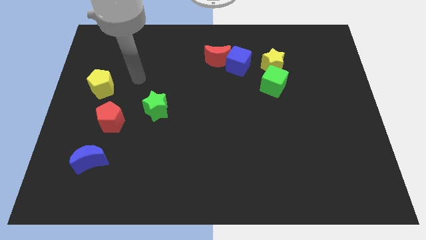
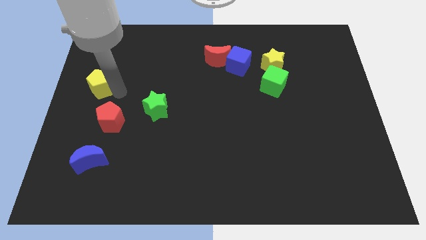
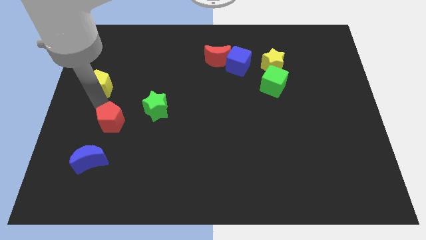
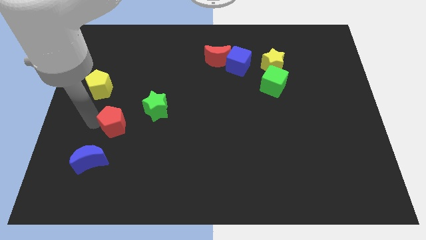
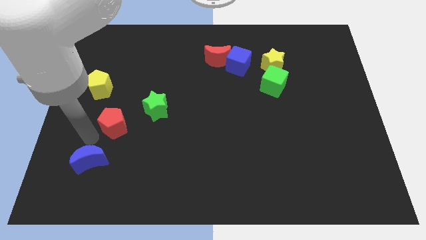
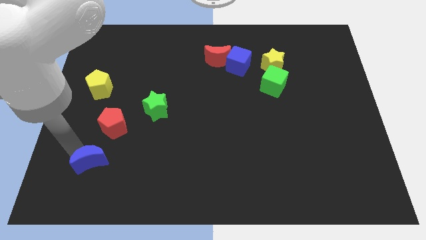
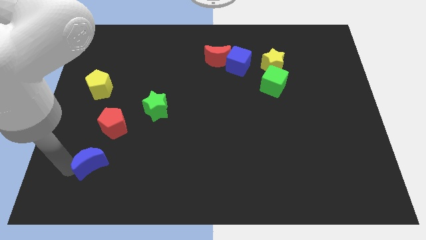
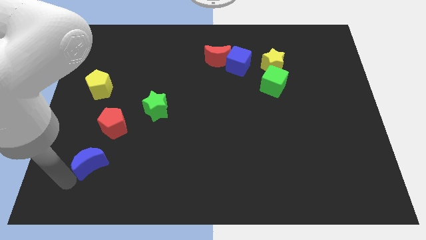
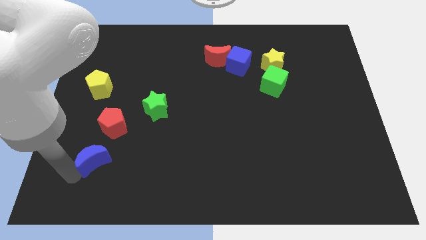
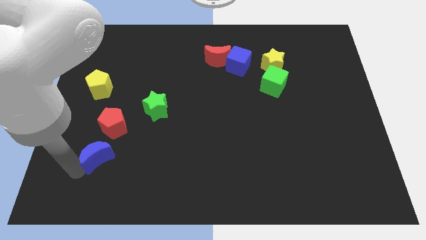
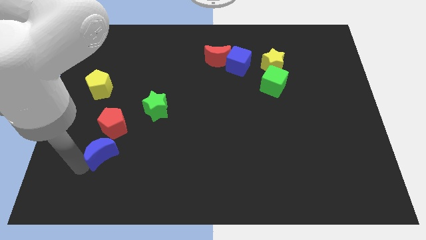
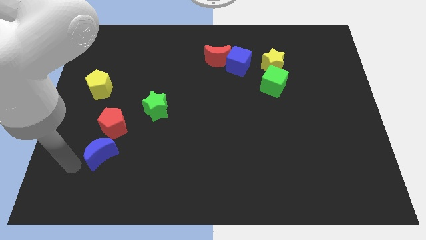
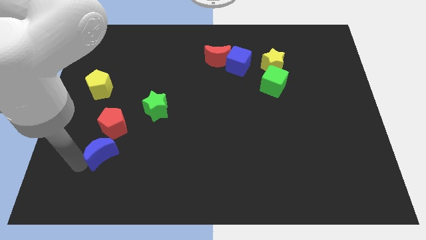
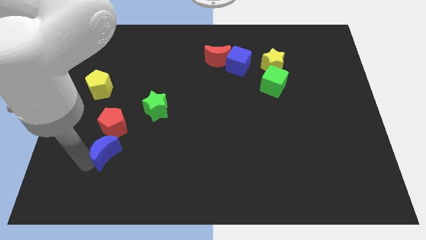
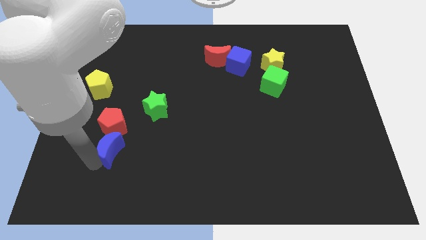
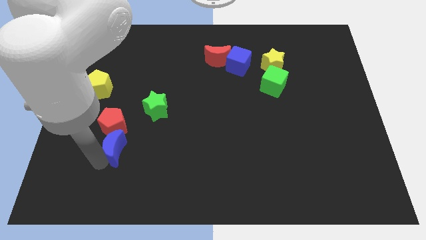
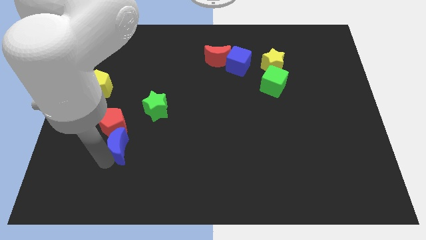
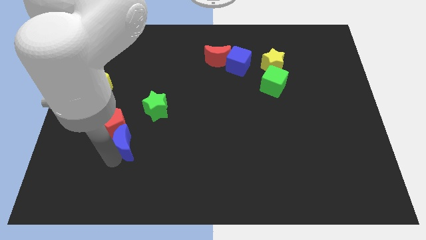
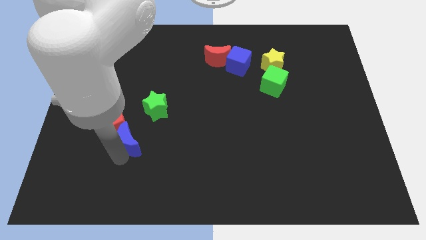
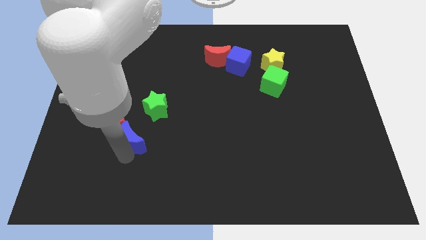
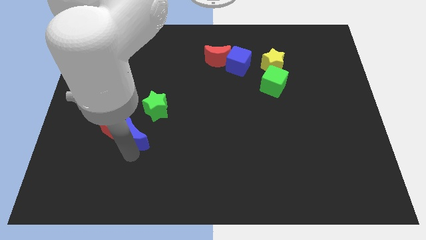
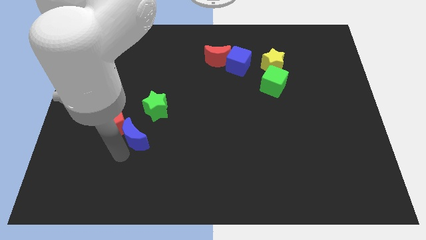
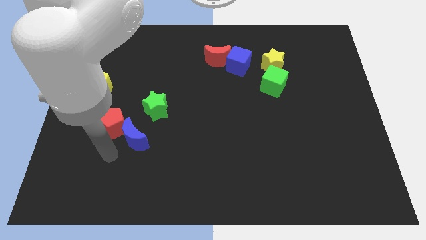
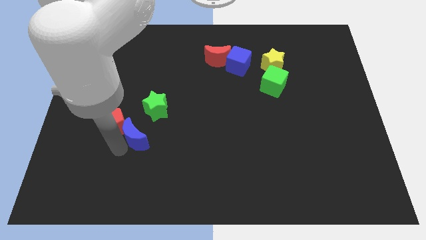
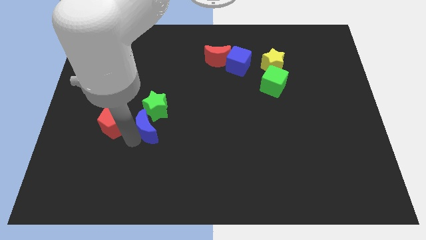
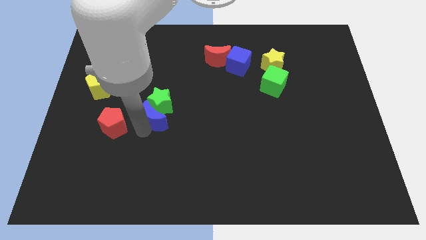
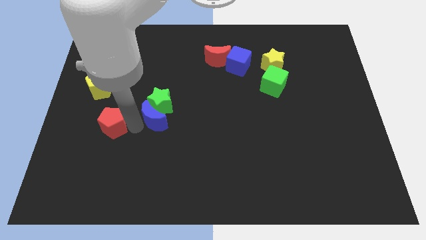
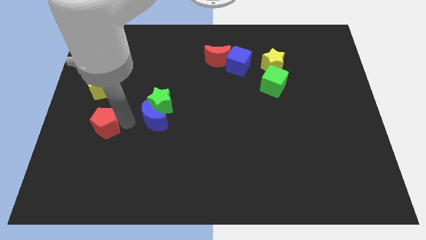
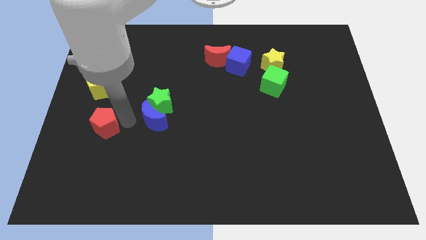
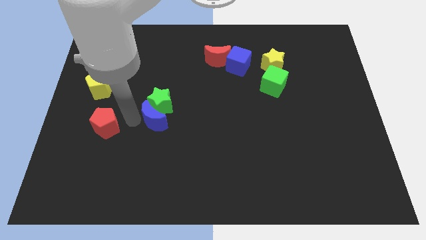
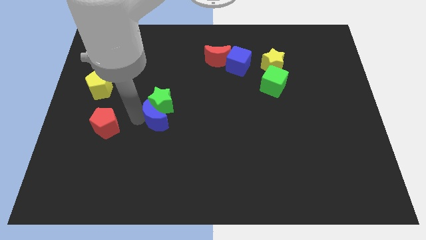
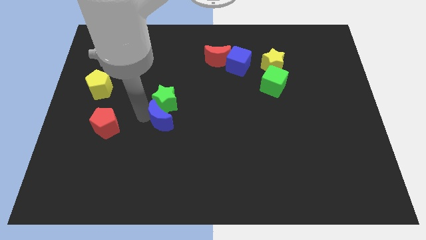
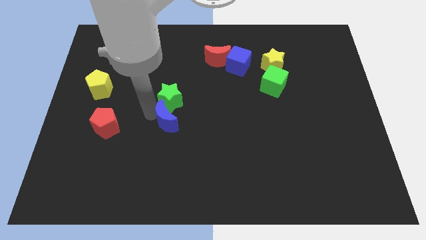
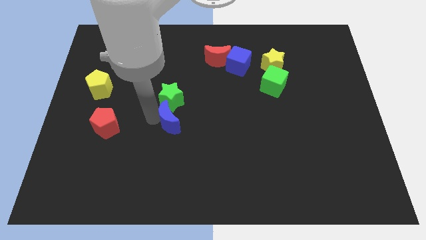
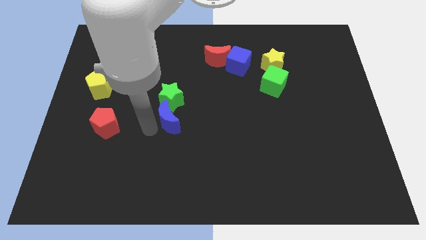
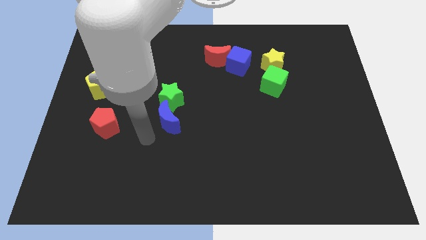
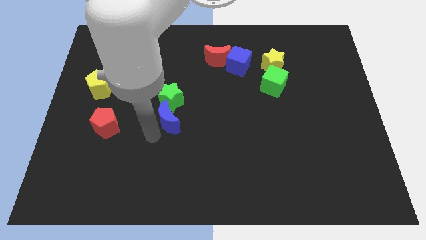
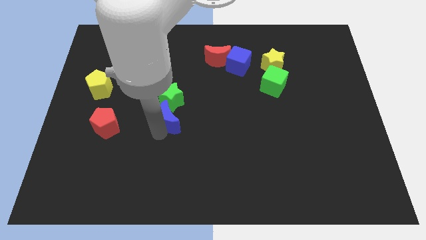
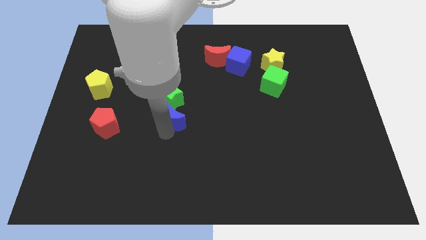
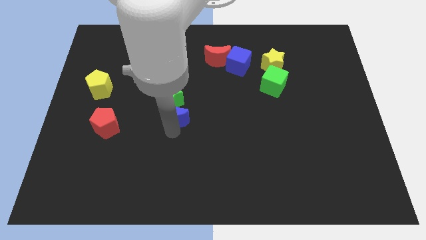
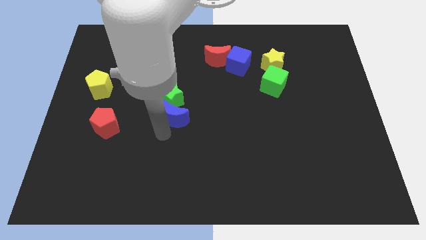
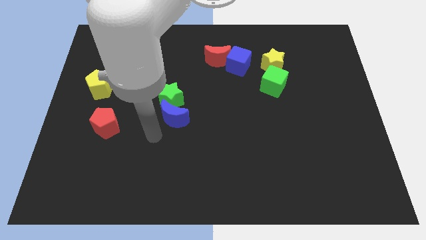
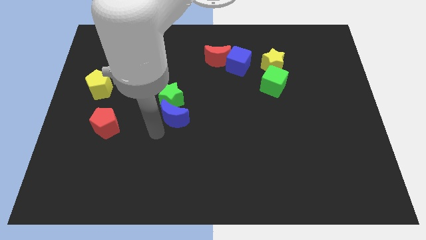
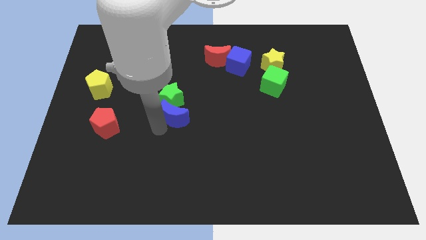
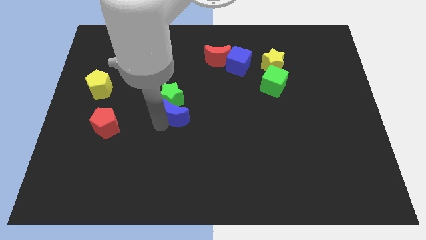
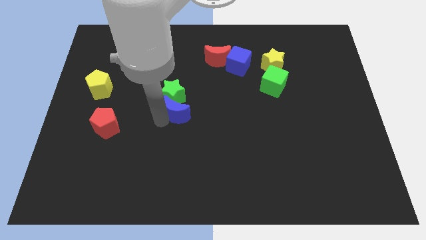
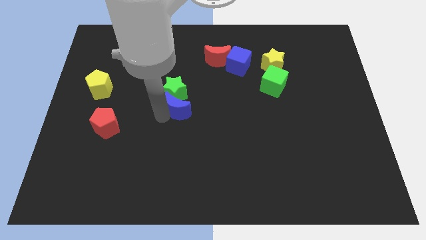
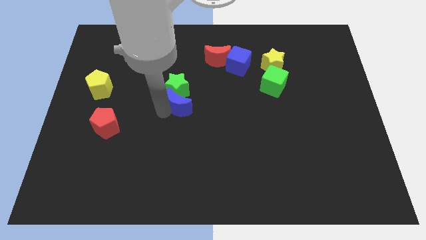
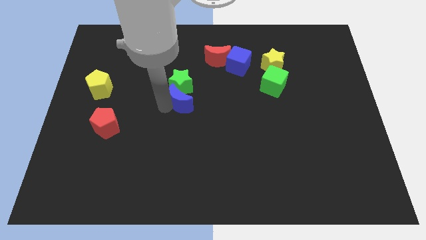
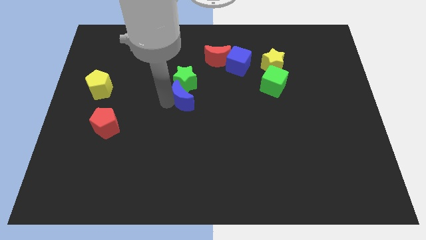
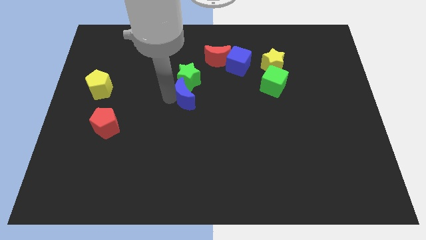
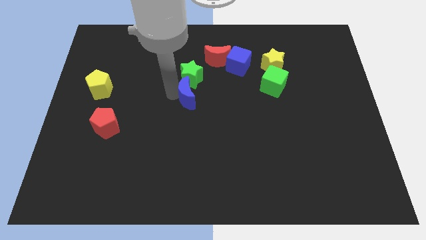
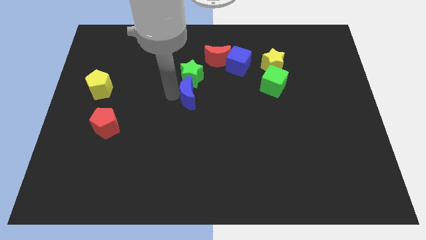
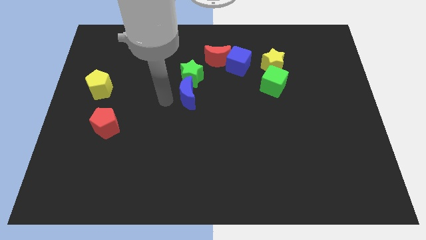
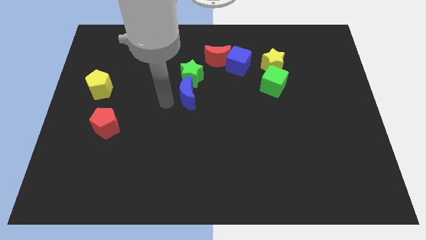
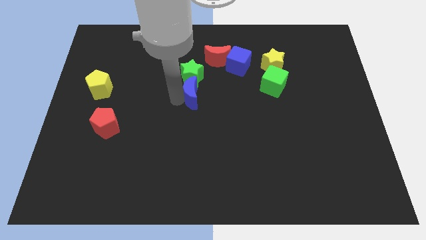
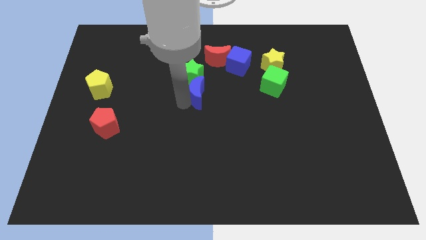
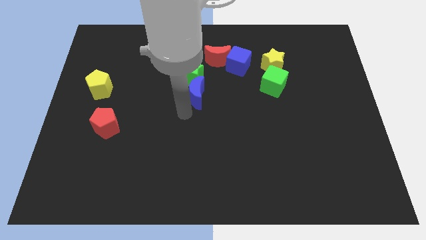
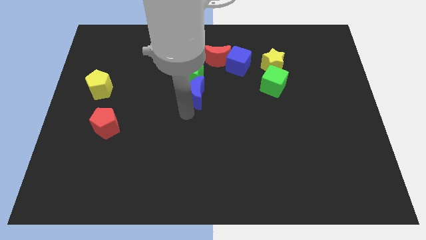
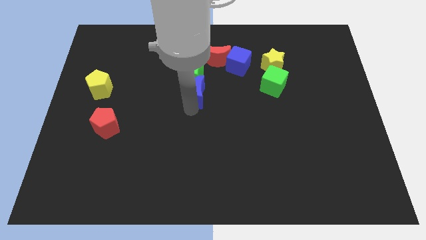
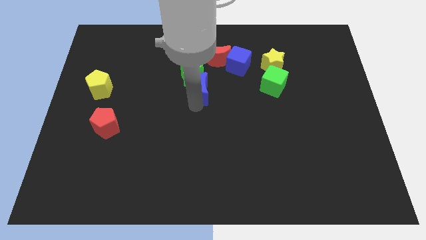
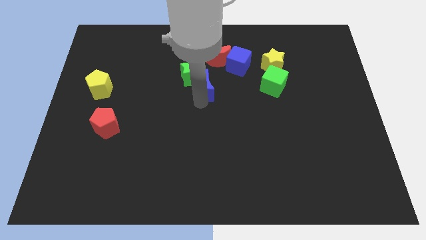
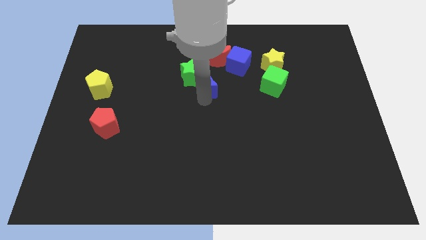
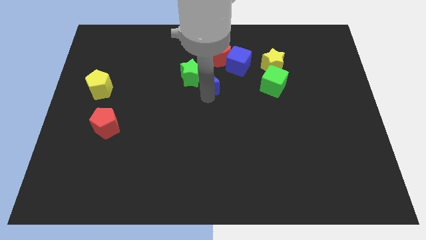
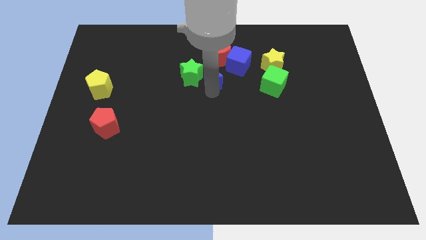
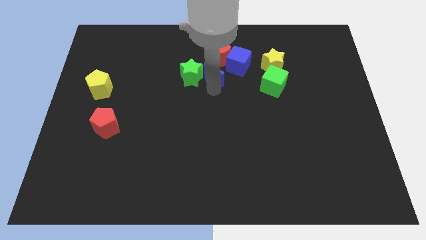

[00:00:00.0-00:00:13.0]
put the blue moon towards the red moon
